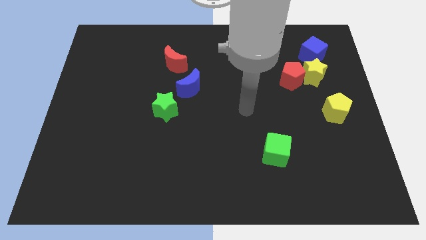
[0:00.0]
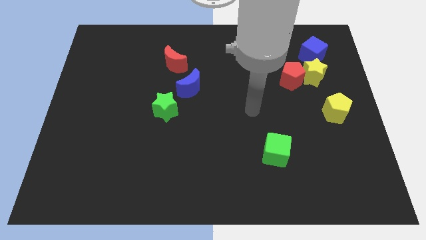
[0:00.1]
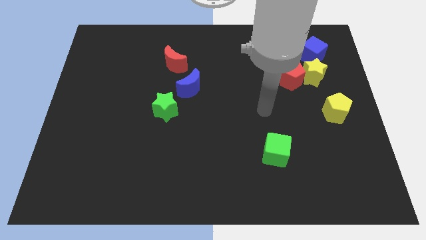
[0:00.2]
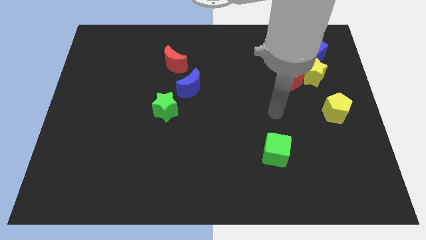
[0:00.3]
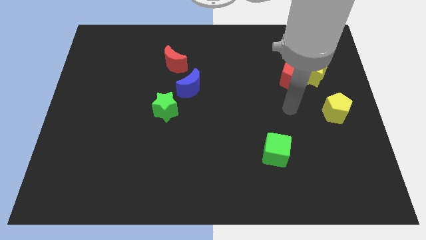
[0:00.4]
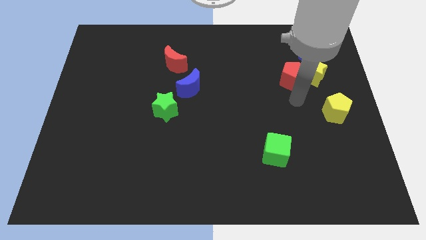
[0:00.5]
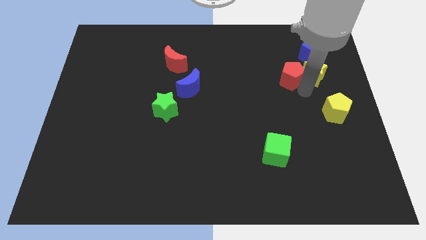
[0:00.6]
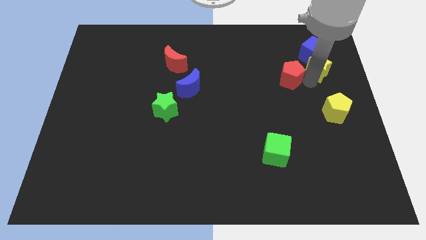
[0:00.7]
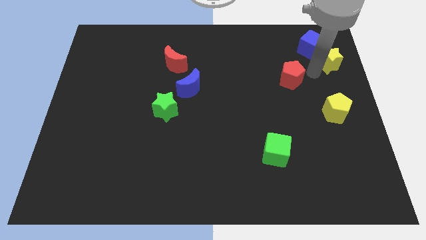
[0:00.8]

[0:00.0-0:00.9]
pull the red pentagon apart from the yellow star

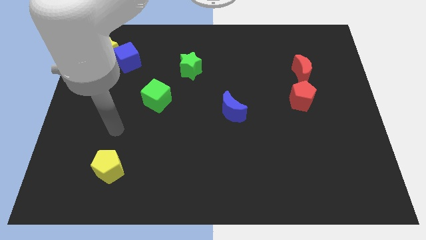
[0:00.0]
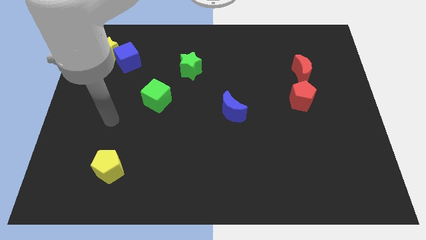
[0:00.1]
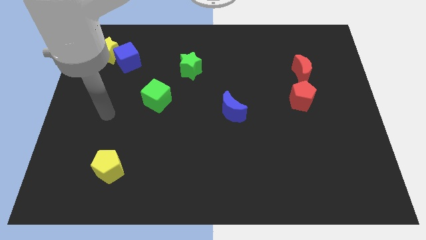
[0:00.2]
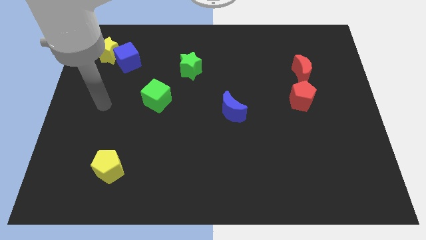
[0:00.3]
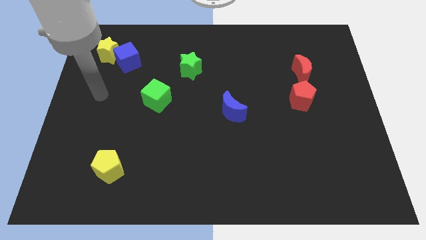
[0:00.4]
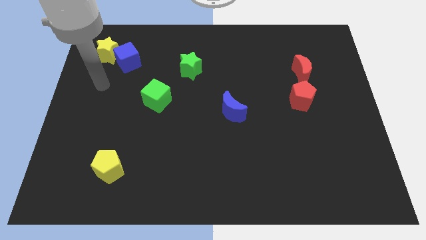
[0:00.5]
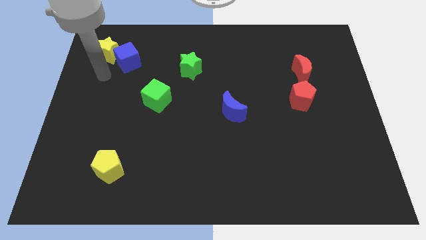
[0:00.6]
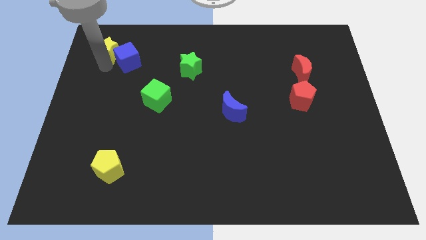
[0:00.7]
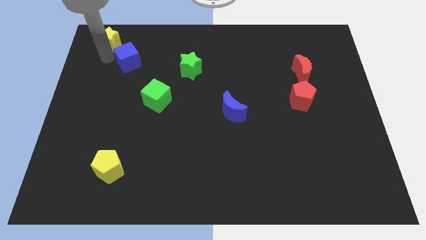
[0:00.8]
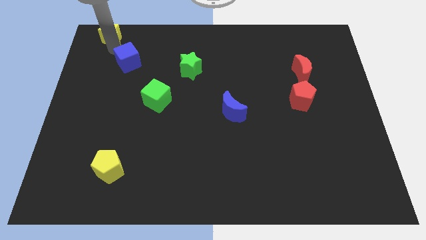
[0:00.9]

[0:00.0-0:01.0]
pull the blue cube apart from the yellow star

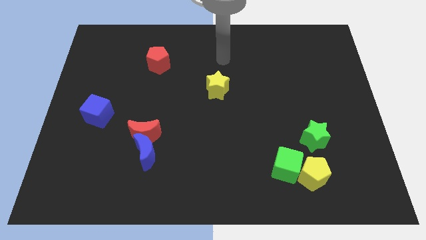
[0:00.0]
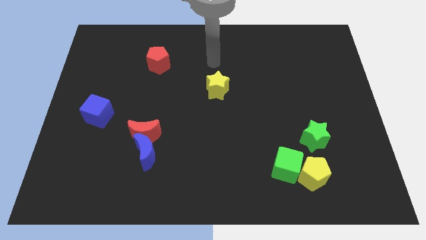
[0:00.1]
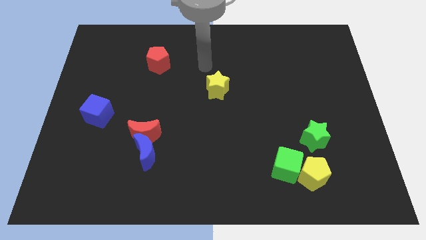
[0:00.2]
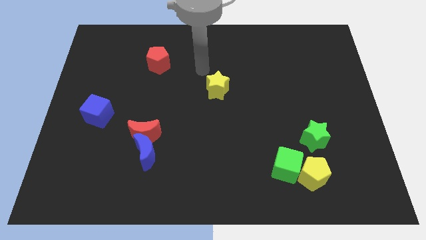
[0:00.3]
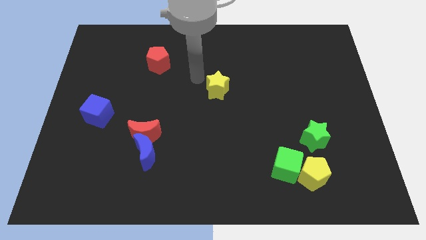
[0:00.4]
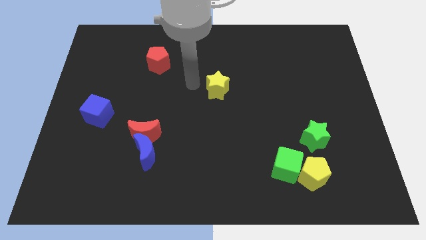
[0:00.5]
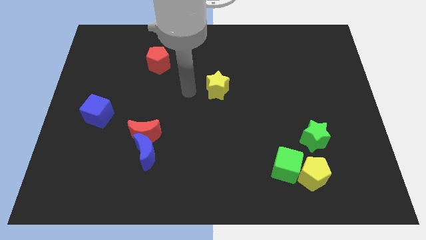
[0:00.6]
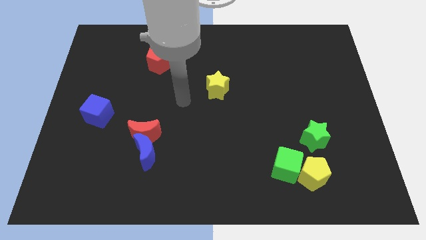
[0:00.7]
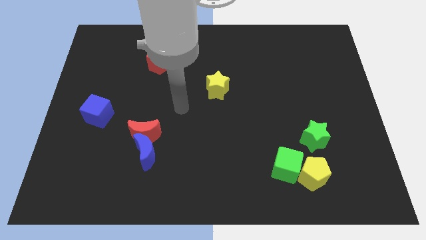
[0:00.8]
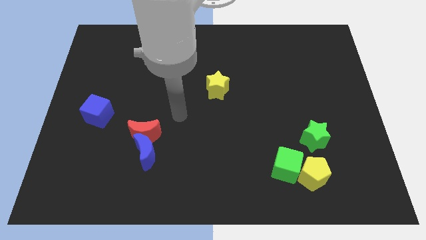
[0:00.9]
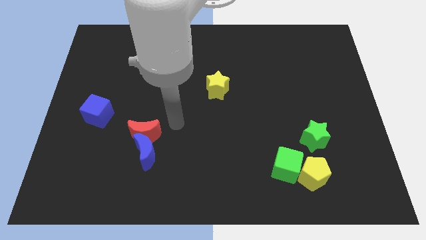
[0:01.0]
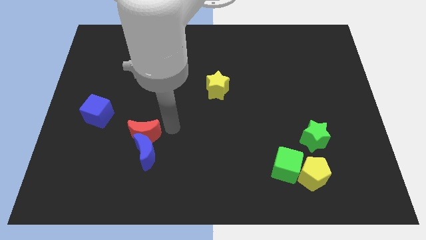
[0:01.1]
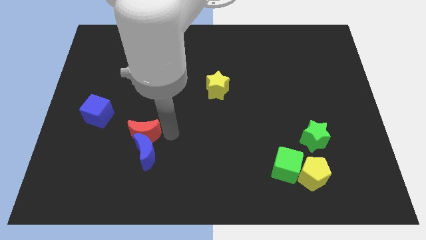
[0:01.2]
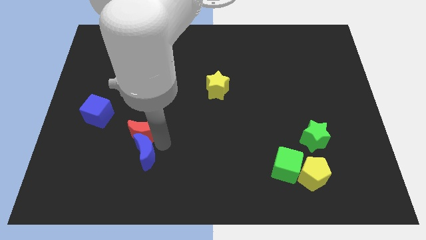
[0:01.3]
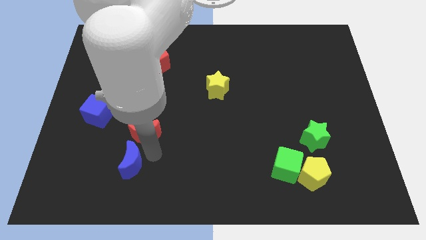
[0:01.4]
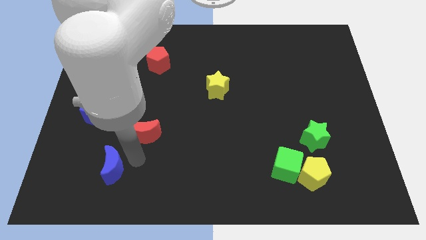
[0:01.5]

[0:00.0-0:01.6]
move the red moon away from the blue moon

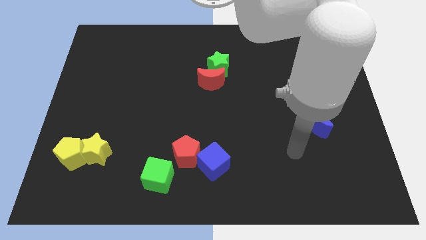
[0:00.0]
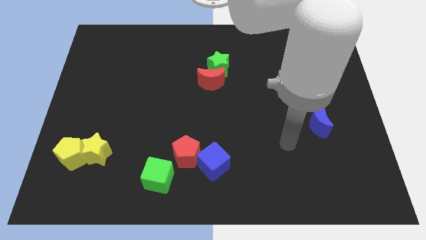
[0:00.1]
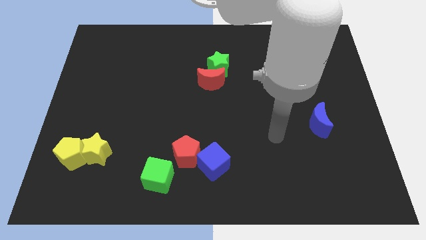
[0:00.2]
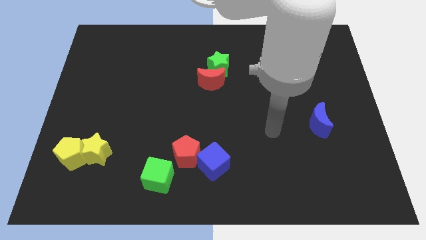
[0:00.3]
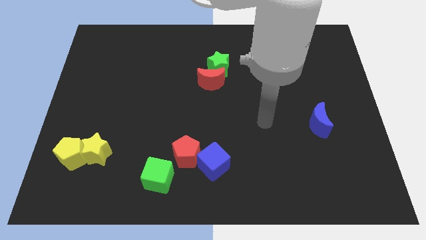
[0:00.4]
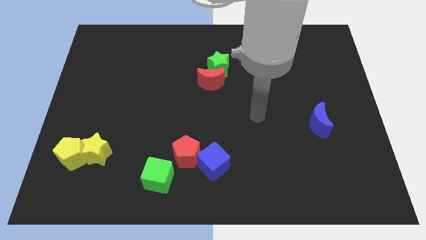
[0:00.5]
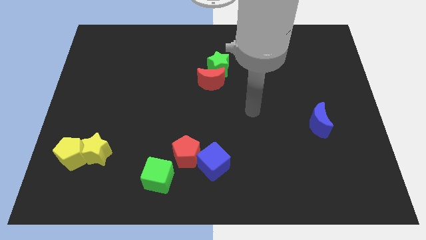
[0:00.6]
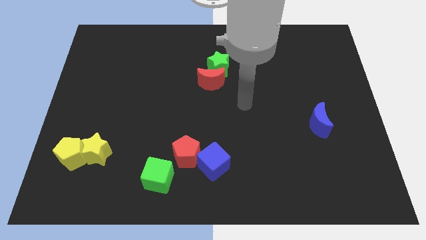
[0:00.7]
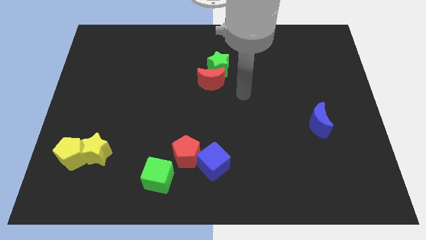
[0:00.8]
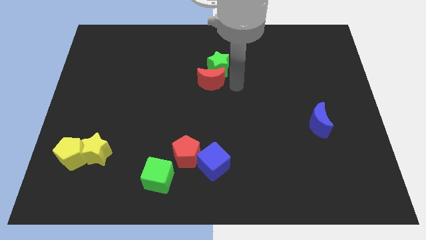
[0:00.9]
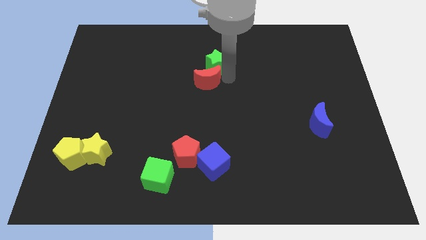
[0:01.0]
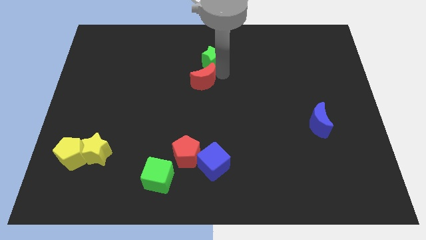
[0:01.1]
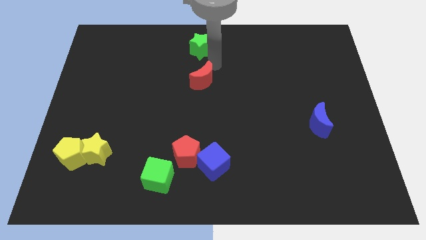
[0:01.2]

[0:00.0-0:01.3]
separate the red moon from the green star

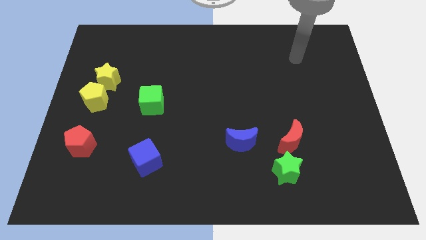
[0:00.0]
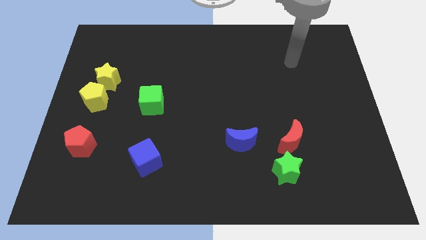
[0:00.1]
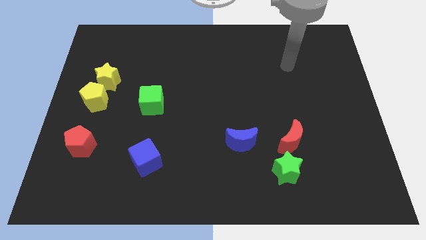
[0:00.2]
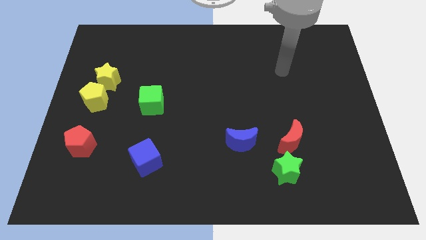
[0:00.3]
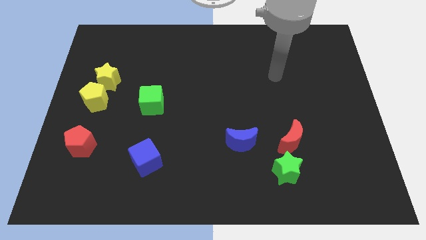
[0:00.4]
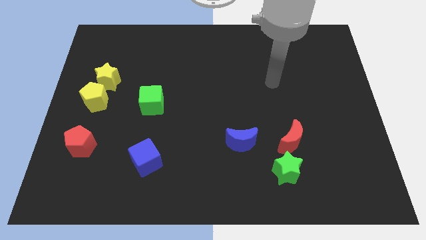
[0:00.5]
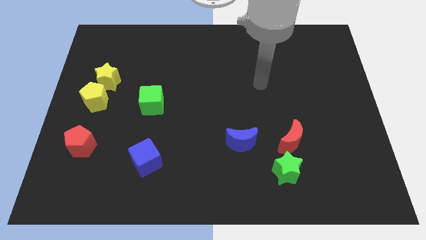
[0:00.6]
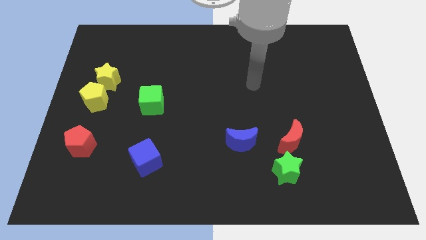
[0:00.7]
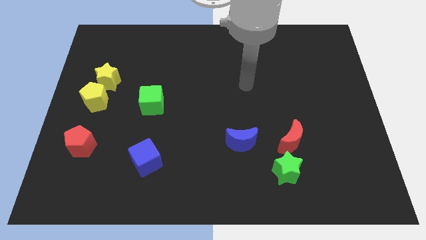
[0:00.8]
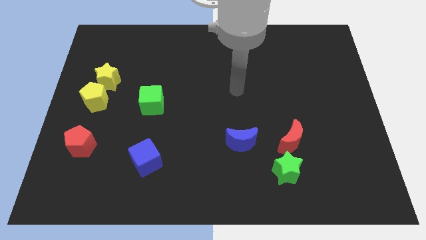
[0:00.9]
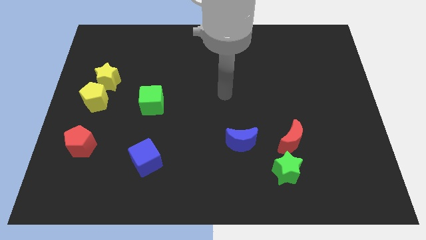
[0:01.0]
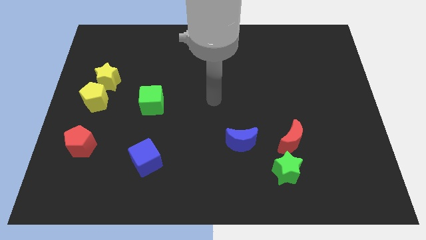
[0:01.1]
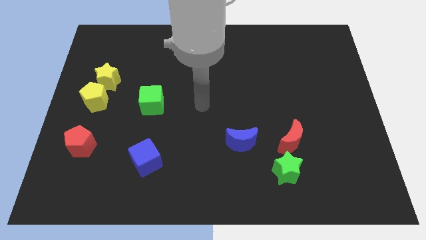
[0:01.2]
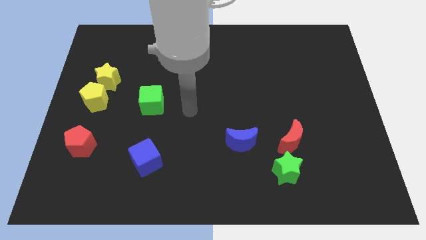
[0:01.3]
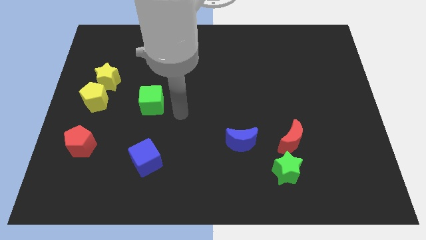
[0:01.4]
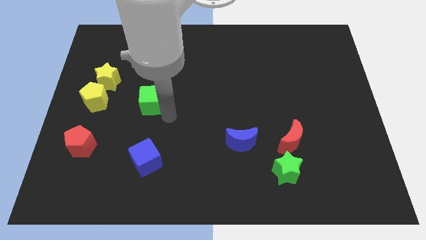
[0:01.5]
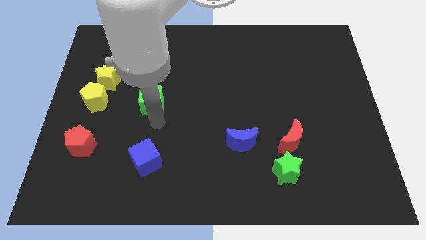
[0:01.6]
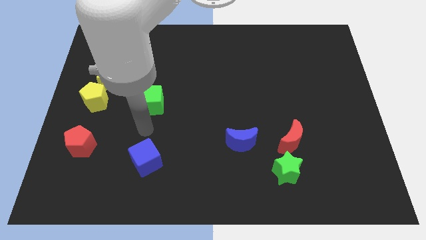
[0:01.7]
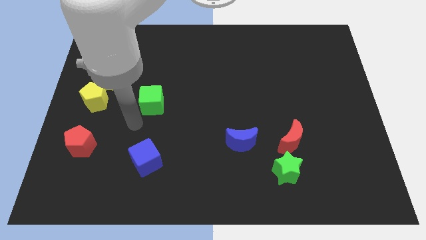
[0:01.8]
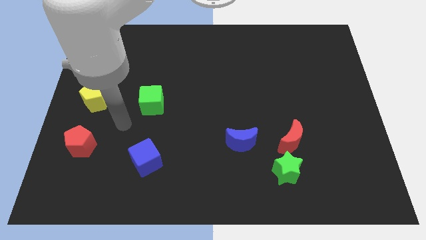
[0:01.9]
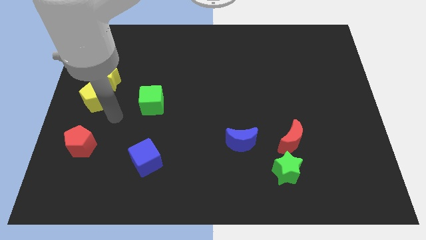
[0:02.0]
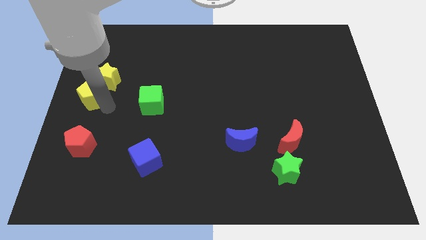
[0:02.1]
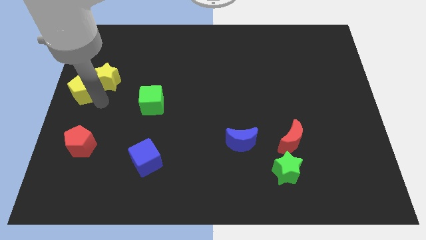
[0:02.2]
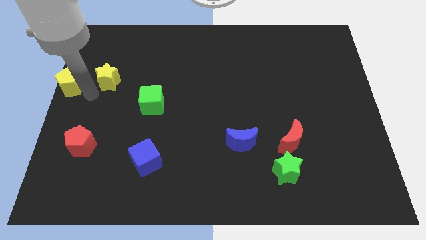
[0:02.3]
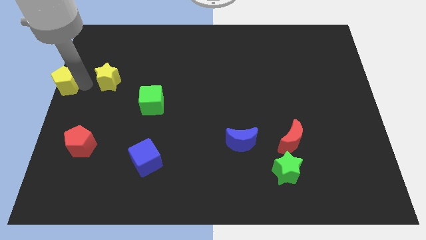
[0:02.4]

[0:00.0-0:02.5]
separate the yellow star from the yellow pentagon

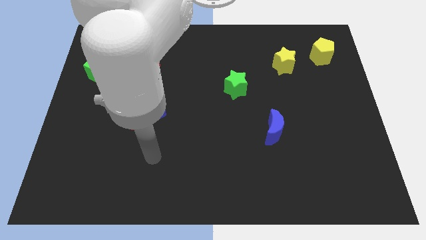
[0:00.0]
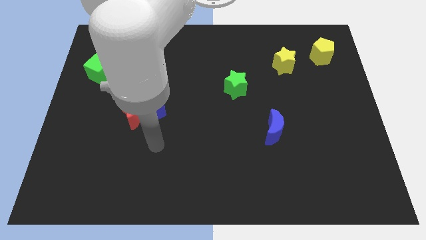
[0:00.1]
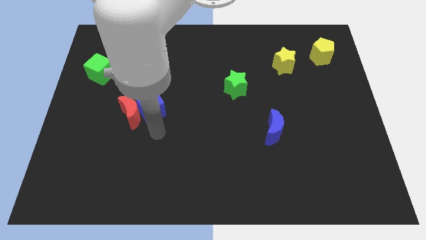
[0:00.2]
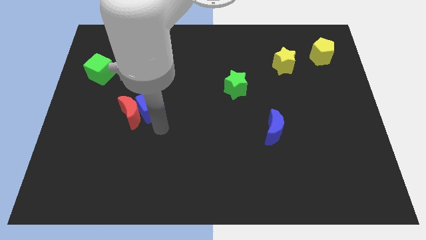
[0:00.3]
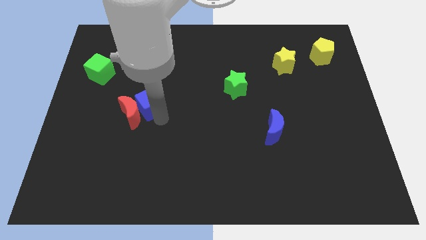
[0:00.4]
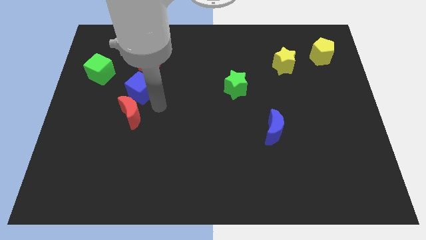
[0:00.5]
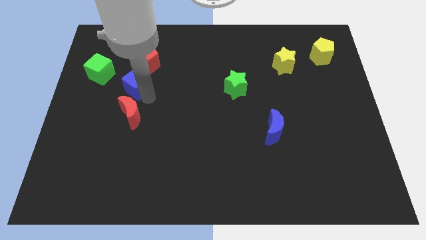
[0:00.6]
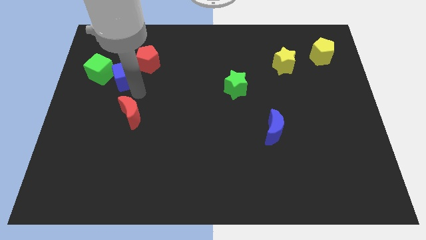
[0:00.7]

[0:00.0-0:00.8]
separate the red moon from the blue cube

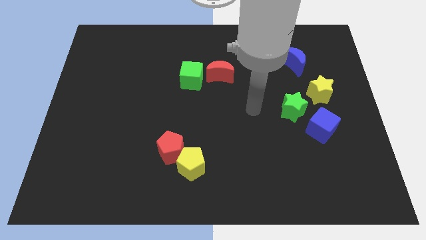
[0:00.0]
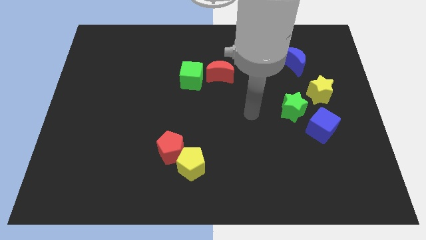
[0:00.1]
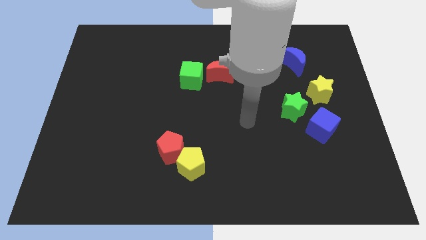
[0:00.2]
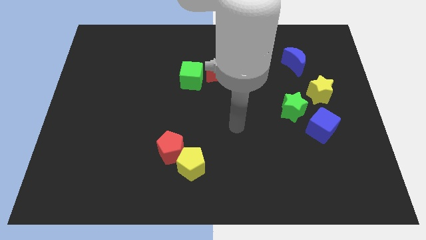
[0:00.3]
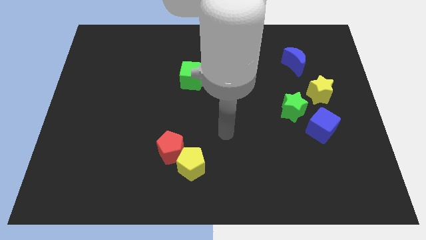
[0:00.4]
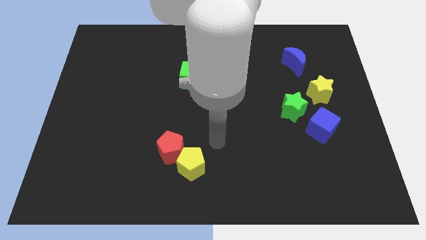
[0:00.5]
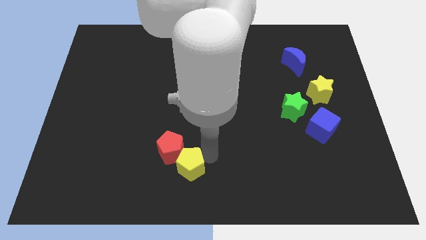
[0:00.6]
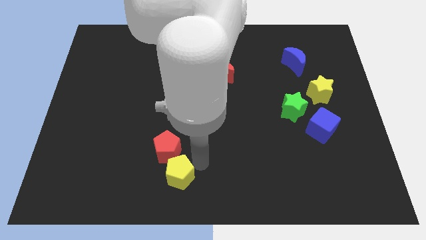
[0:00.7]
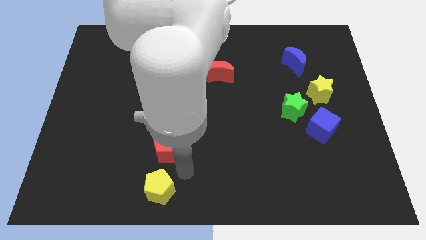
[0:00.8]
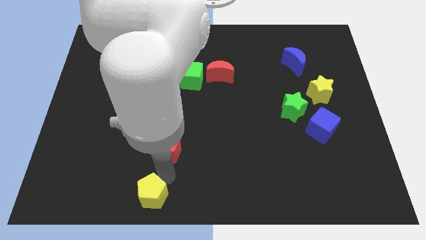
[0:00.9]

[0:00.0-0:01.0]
separate the red pentagon from the yellow pentagon

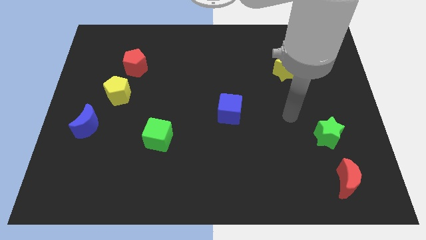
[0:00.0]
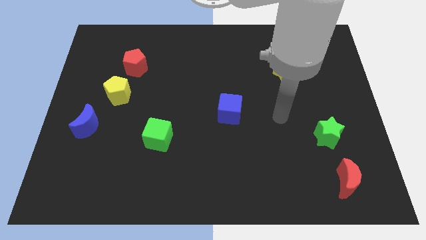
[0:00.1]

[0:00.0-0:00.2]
move the red pentagon away from the yellow pentagon
